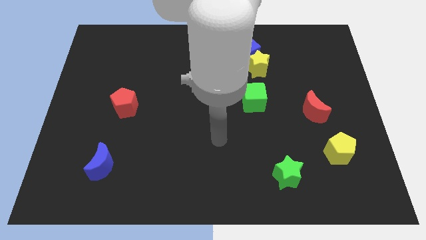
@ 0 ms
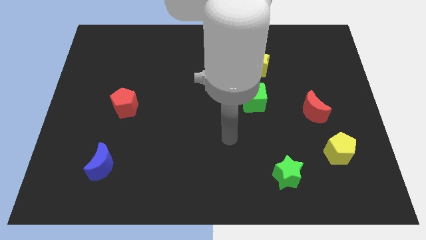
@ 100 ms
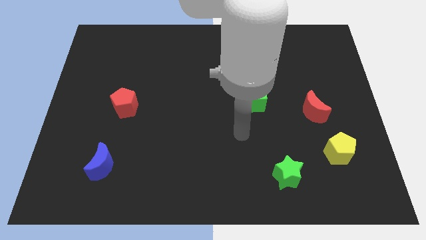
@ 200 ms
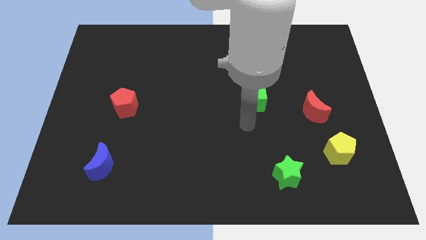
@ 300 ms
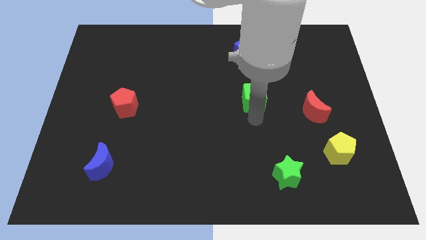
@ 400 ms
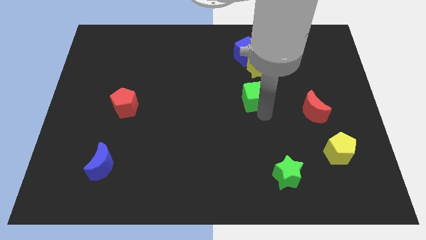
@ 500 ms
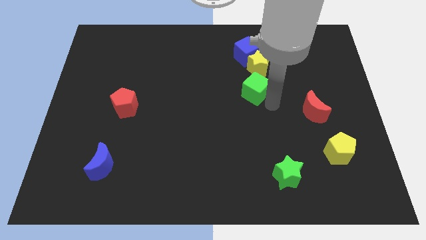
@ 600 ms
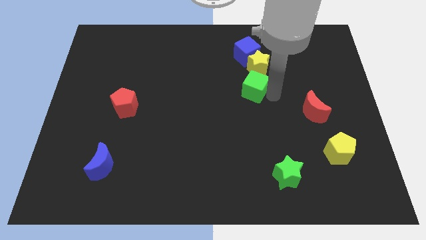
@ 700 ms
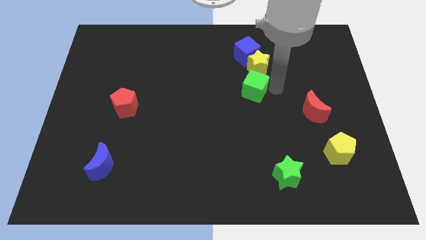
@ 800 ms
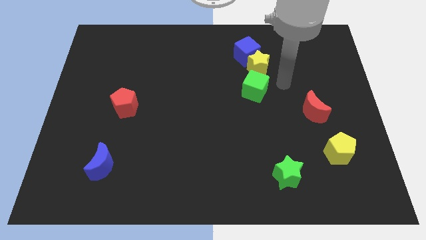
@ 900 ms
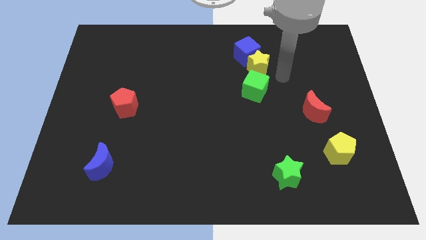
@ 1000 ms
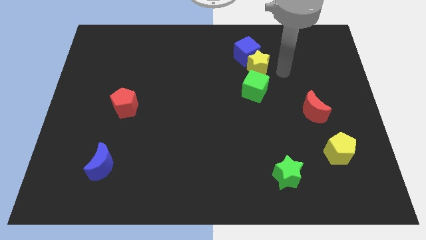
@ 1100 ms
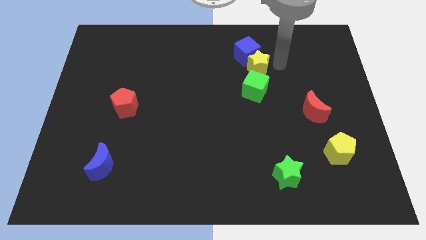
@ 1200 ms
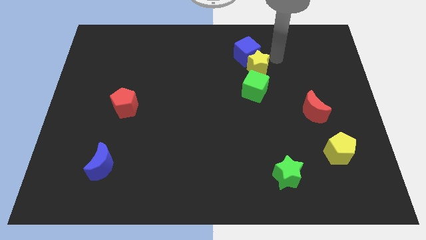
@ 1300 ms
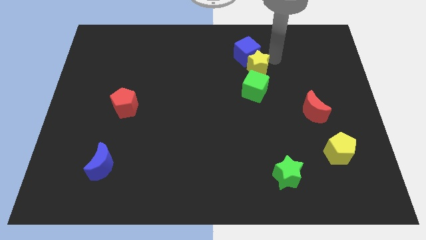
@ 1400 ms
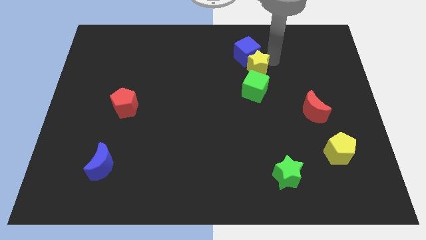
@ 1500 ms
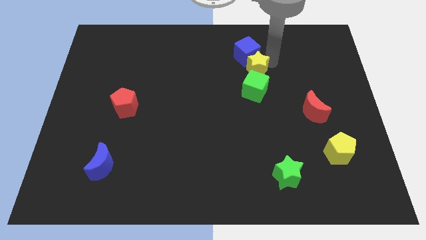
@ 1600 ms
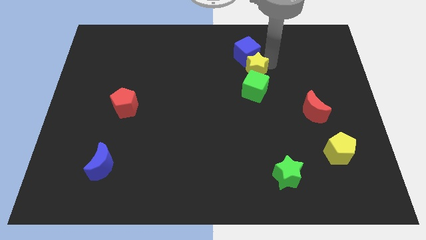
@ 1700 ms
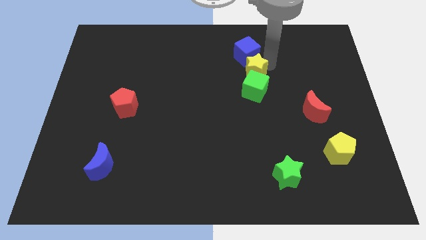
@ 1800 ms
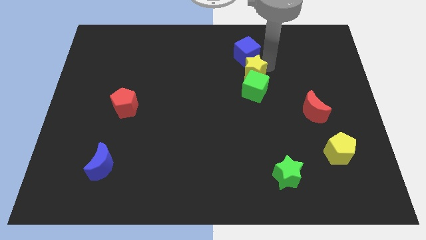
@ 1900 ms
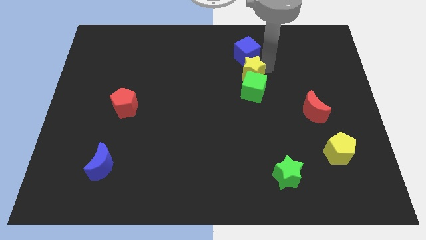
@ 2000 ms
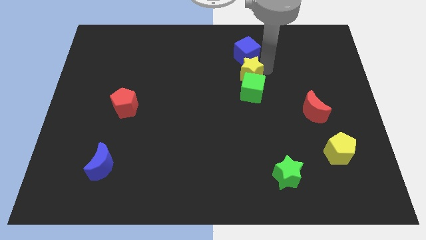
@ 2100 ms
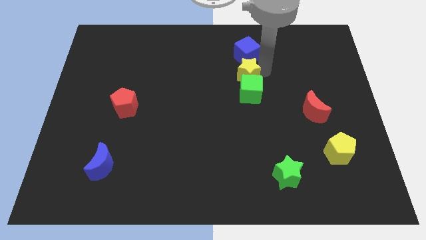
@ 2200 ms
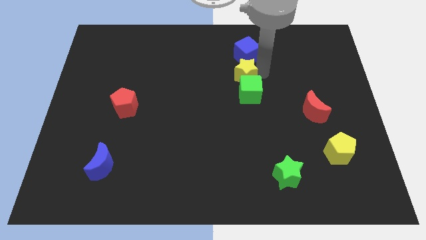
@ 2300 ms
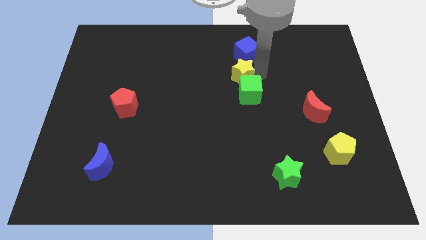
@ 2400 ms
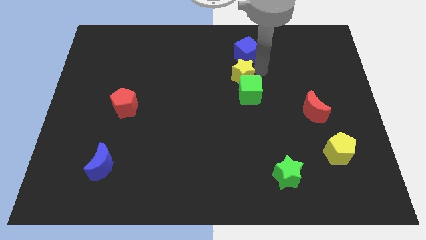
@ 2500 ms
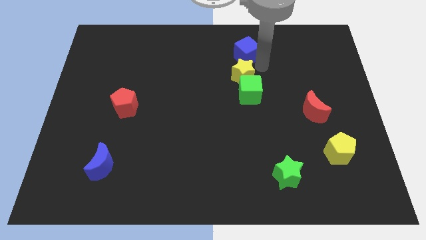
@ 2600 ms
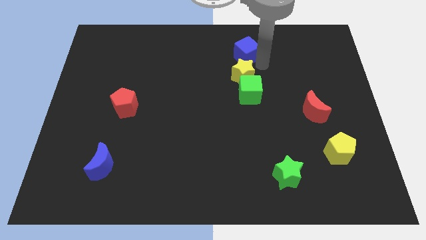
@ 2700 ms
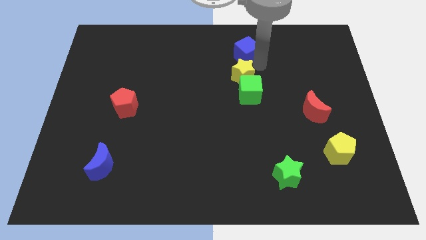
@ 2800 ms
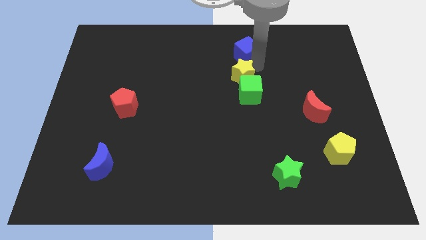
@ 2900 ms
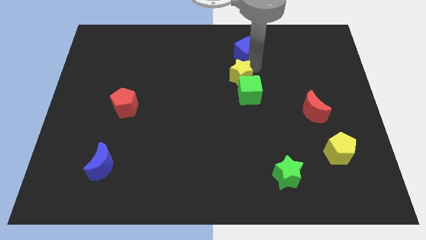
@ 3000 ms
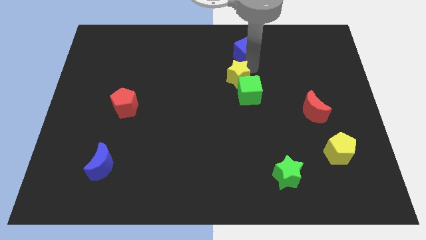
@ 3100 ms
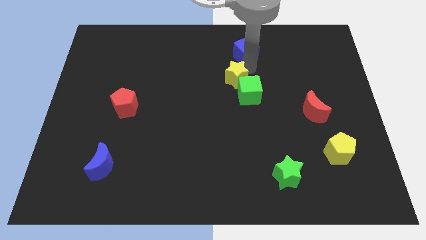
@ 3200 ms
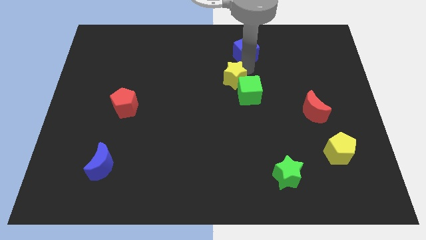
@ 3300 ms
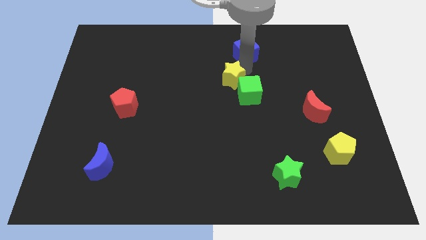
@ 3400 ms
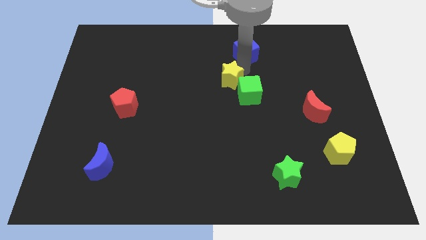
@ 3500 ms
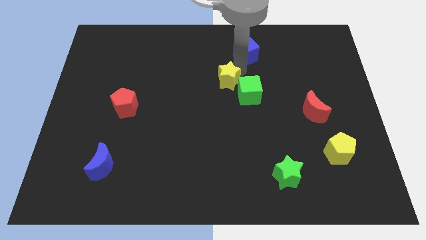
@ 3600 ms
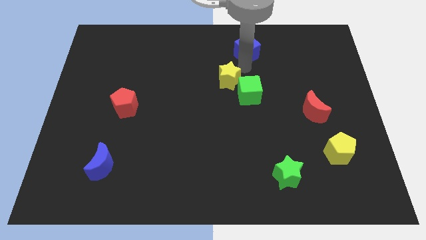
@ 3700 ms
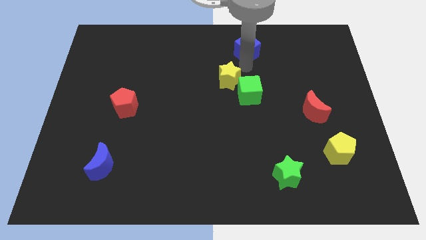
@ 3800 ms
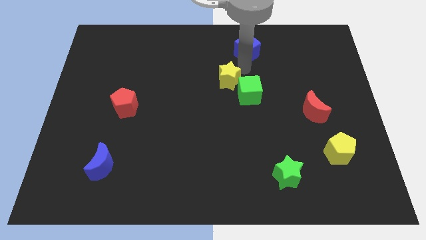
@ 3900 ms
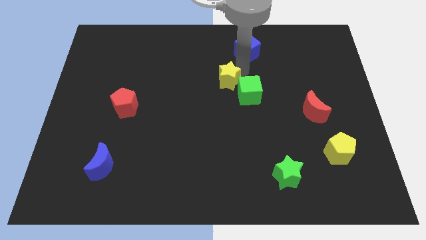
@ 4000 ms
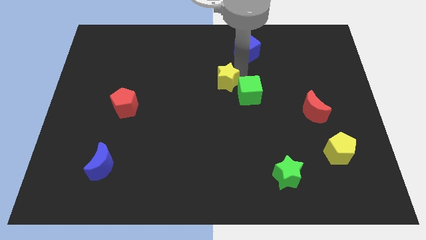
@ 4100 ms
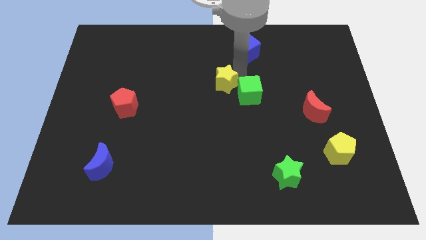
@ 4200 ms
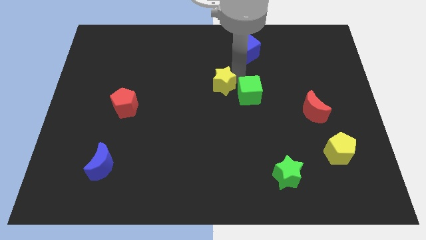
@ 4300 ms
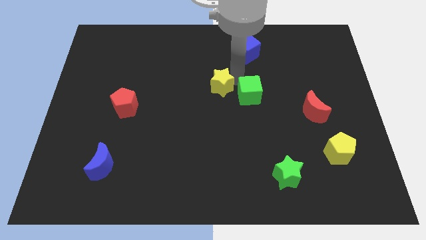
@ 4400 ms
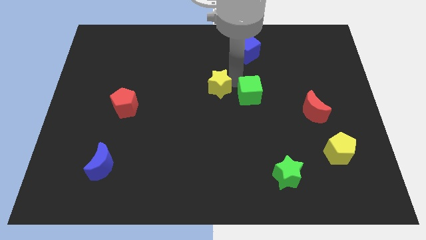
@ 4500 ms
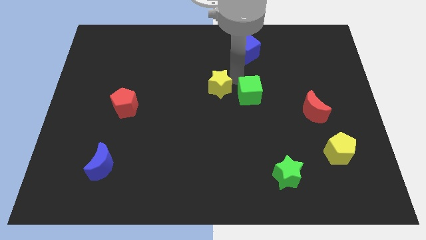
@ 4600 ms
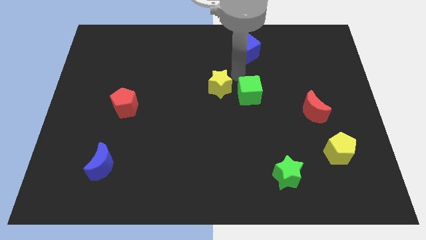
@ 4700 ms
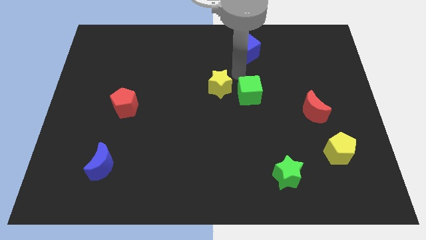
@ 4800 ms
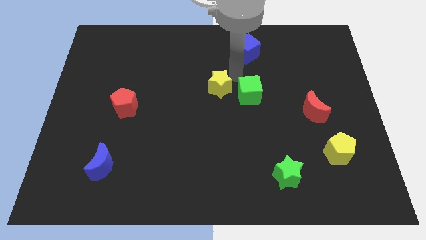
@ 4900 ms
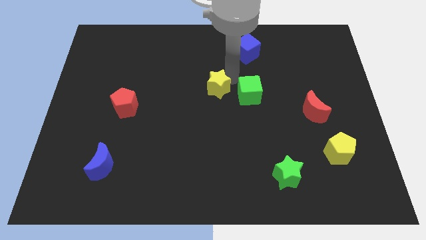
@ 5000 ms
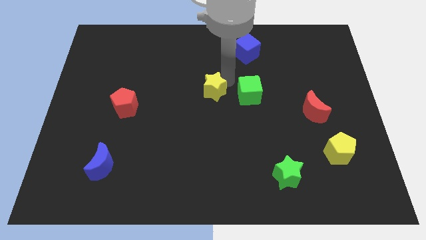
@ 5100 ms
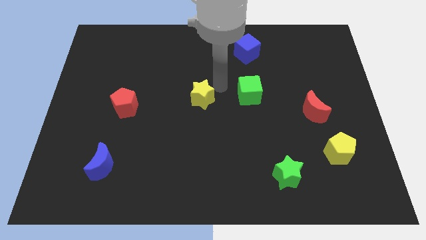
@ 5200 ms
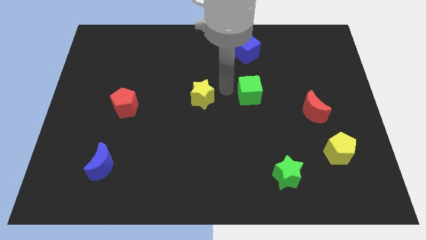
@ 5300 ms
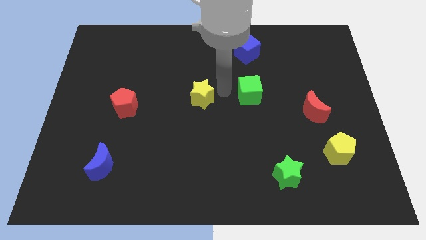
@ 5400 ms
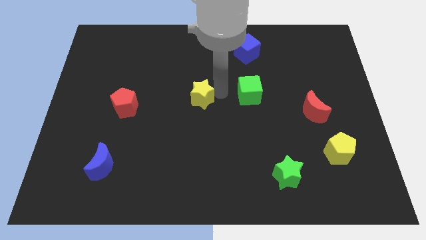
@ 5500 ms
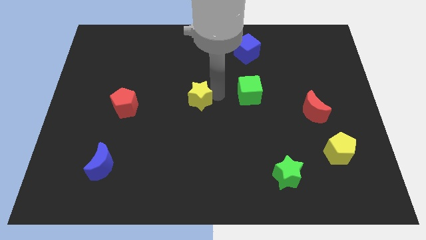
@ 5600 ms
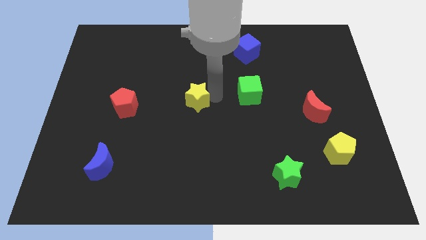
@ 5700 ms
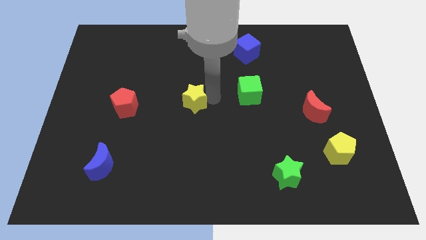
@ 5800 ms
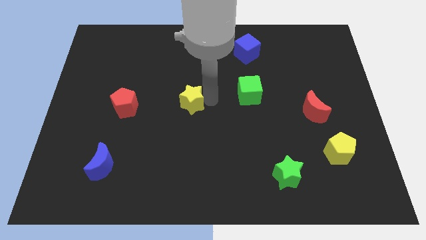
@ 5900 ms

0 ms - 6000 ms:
slide the yellow star to the right side of the red pentagon

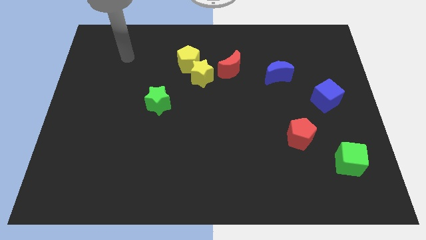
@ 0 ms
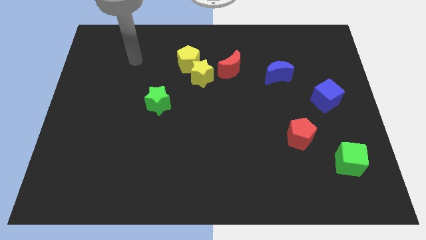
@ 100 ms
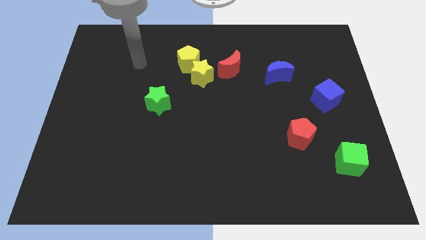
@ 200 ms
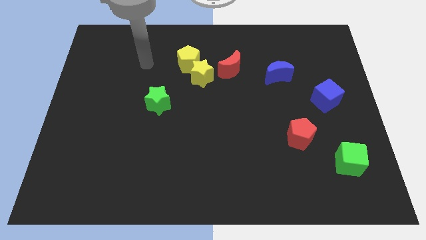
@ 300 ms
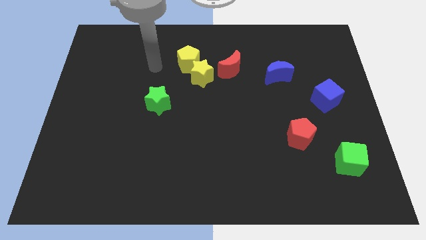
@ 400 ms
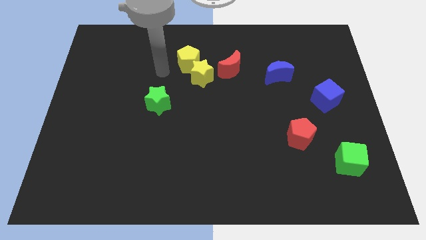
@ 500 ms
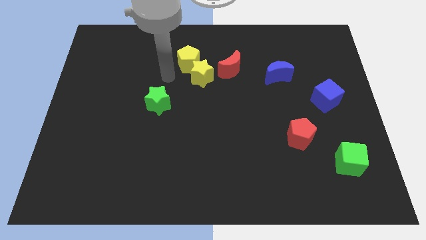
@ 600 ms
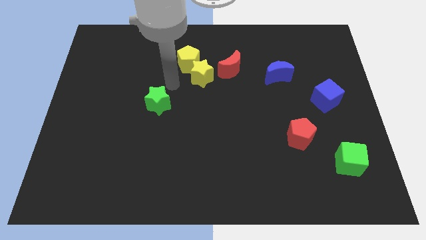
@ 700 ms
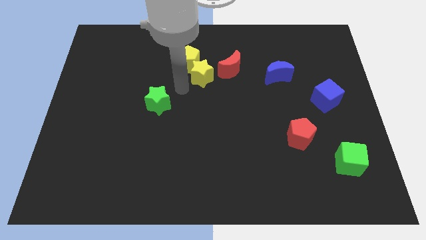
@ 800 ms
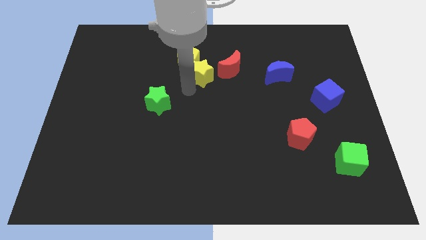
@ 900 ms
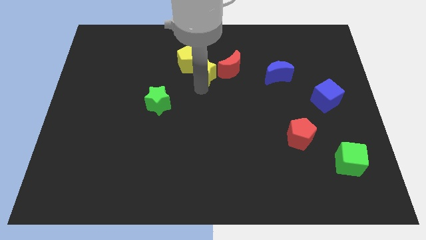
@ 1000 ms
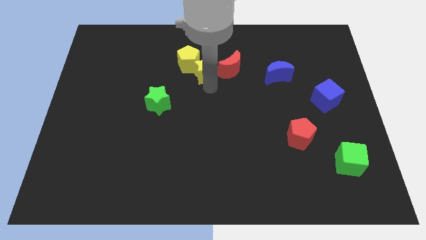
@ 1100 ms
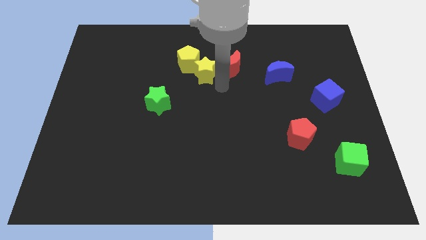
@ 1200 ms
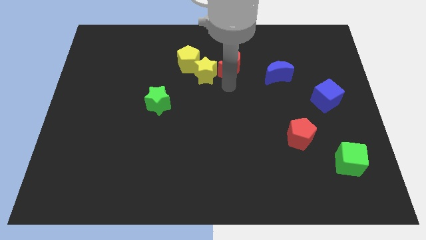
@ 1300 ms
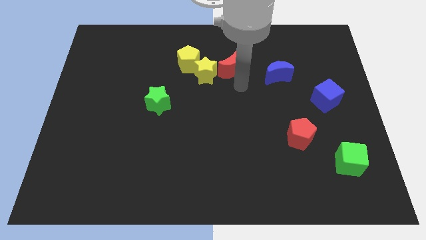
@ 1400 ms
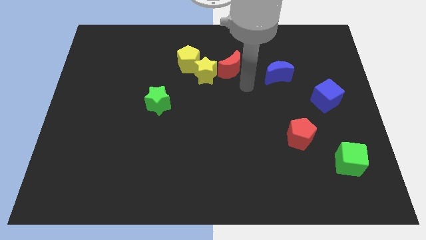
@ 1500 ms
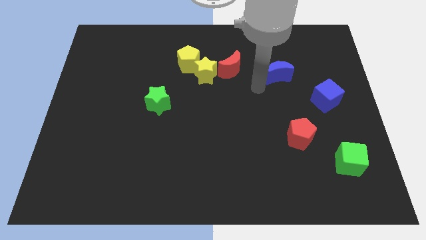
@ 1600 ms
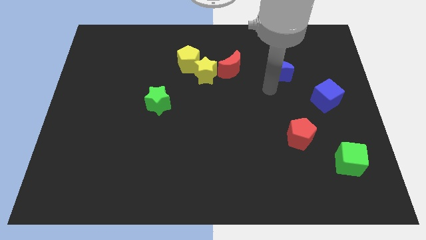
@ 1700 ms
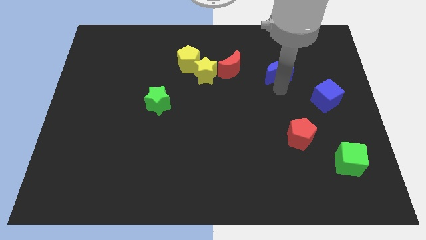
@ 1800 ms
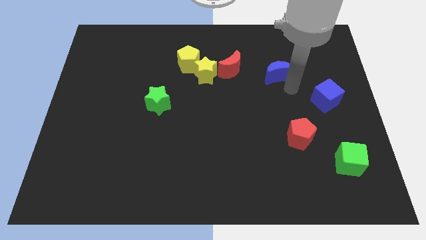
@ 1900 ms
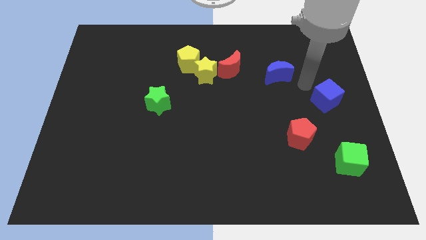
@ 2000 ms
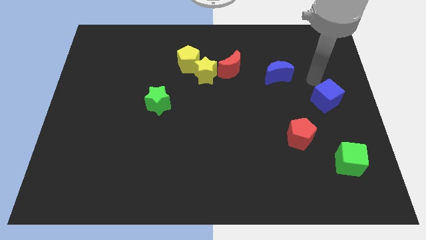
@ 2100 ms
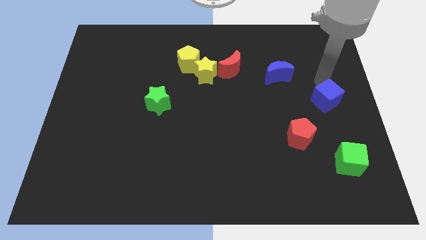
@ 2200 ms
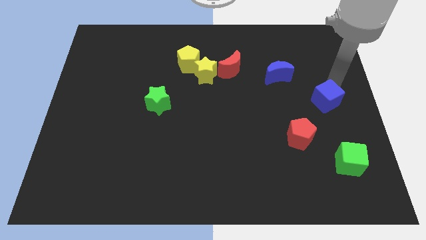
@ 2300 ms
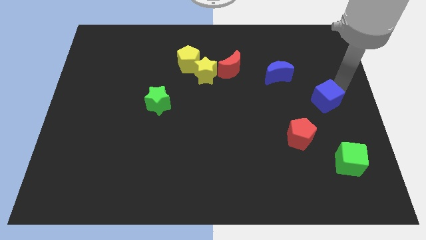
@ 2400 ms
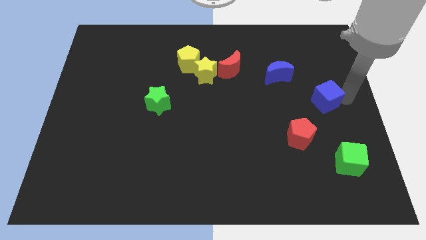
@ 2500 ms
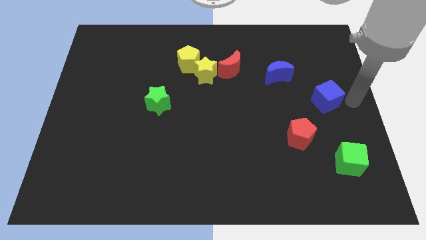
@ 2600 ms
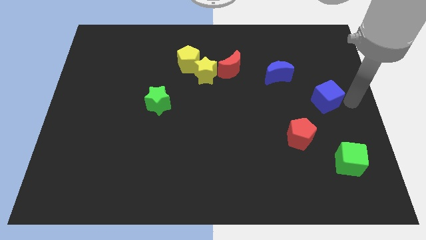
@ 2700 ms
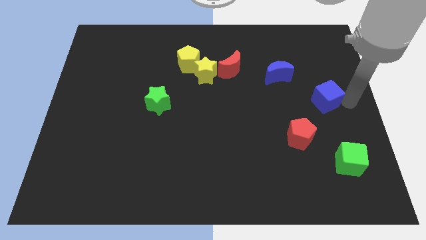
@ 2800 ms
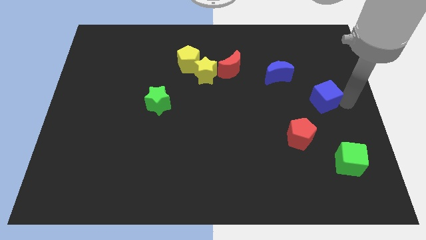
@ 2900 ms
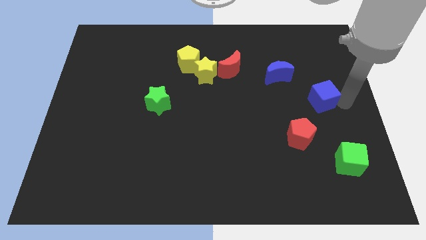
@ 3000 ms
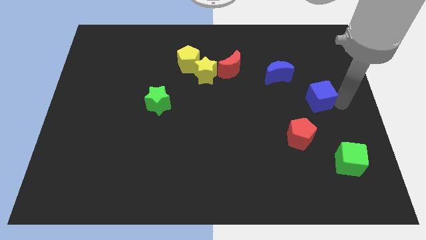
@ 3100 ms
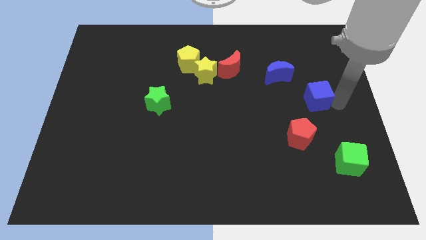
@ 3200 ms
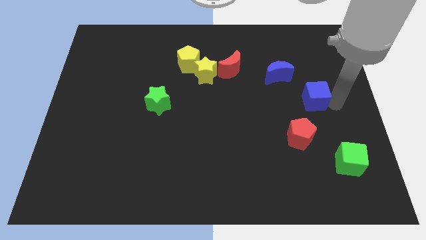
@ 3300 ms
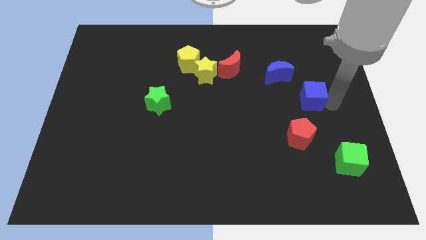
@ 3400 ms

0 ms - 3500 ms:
push the blue cube to the top of the red pentagon
